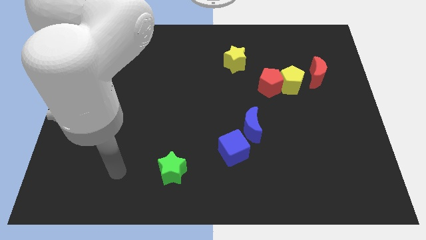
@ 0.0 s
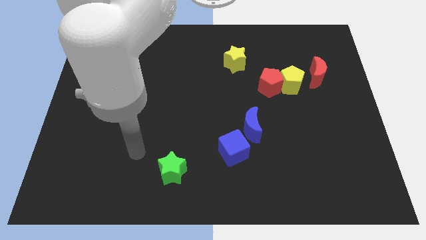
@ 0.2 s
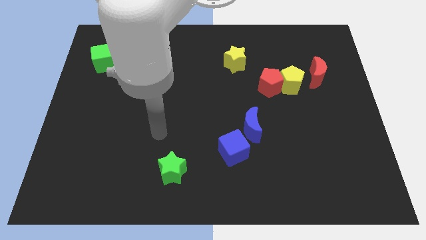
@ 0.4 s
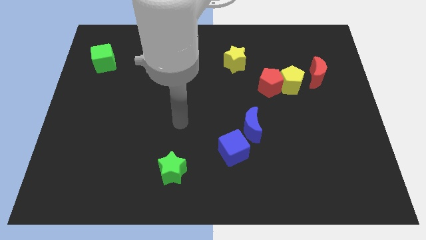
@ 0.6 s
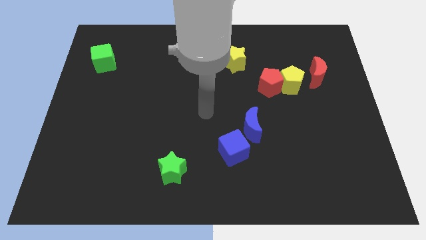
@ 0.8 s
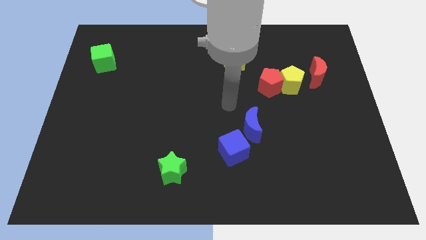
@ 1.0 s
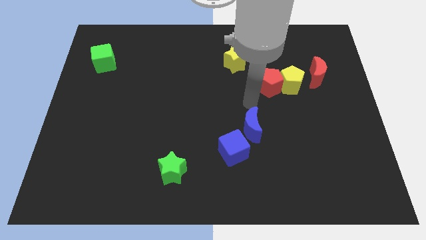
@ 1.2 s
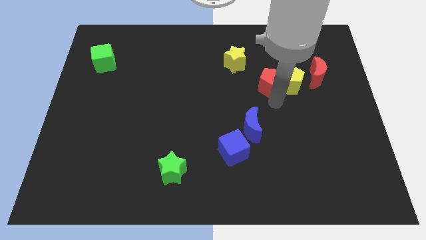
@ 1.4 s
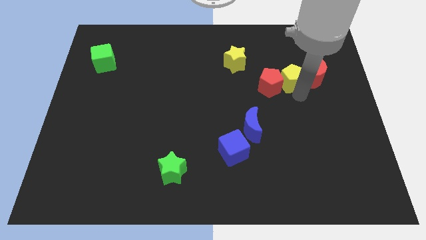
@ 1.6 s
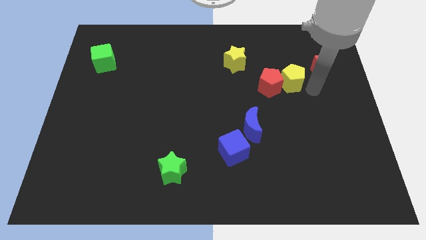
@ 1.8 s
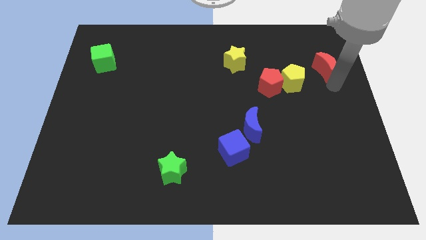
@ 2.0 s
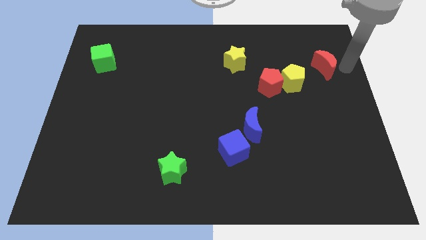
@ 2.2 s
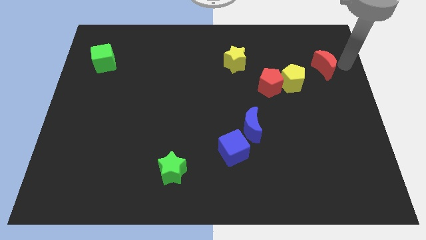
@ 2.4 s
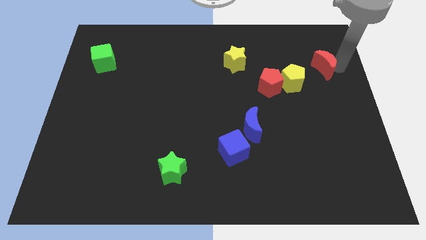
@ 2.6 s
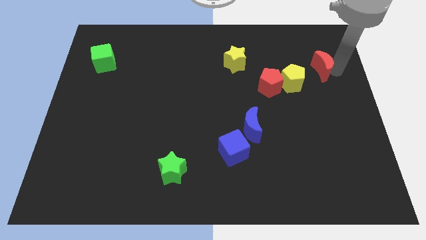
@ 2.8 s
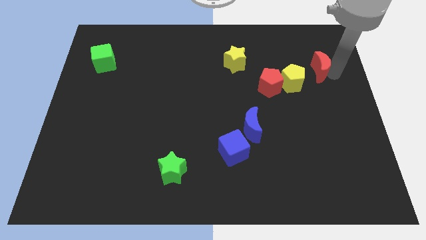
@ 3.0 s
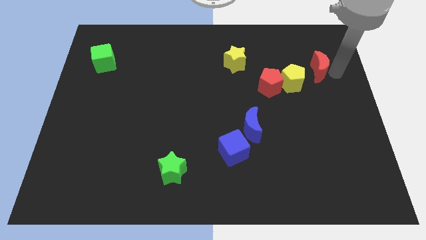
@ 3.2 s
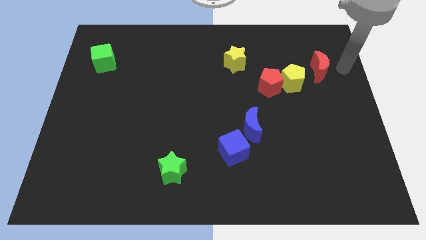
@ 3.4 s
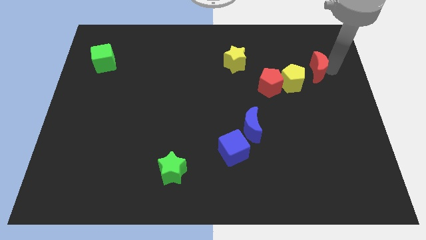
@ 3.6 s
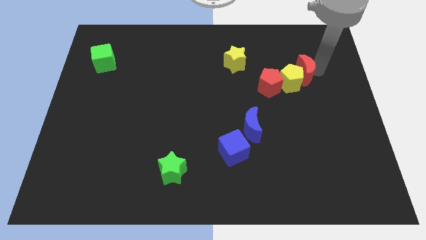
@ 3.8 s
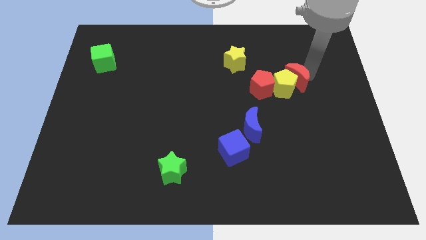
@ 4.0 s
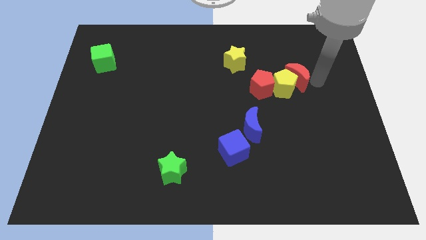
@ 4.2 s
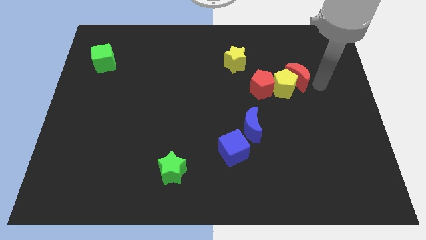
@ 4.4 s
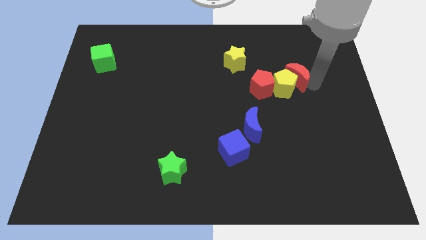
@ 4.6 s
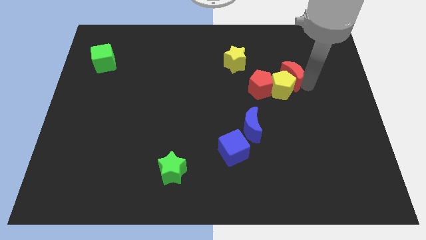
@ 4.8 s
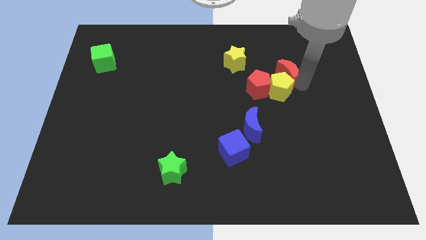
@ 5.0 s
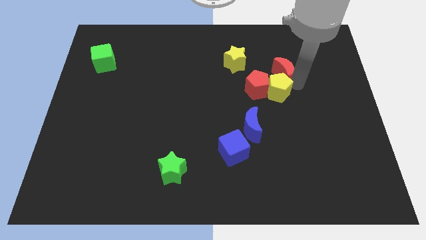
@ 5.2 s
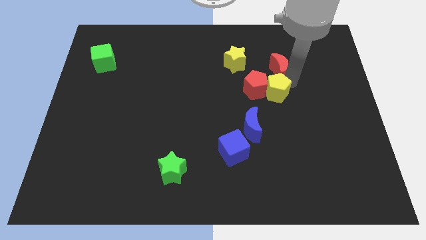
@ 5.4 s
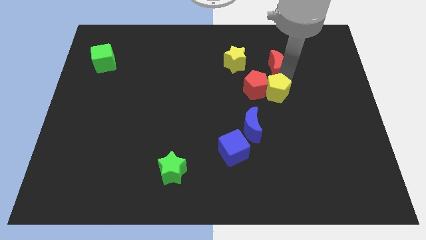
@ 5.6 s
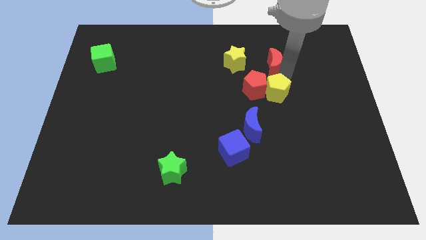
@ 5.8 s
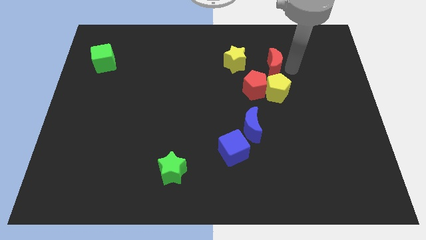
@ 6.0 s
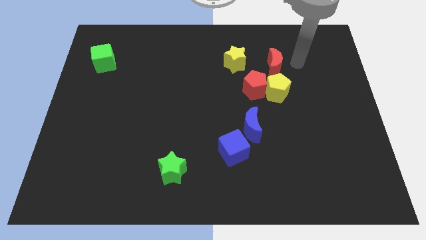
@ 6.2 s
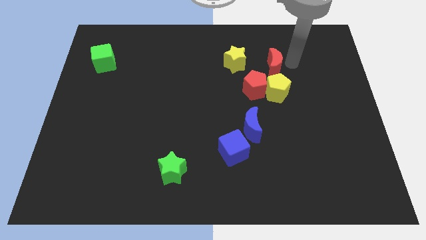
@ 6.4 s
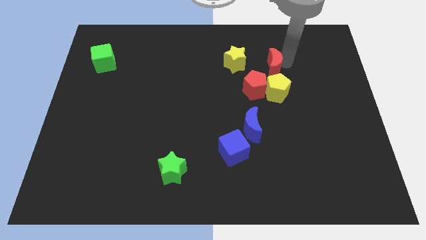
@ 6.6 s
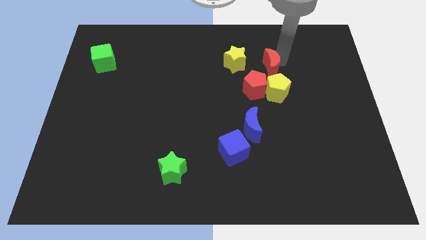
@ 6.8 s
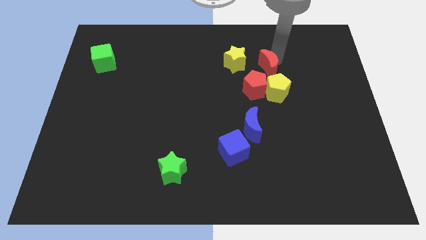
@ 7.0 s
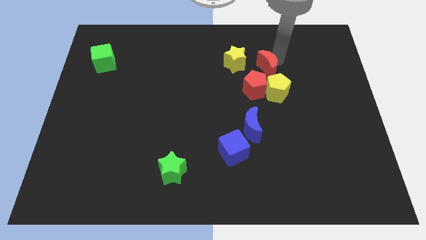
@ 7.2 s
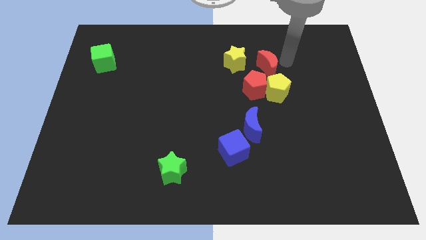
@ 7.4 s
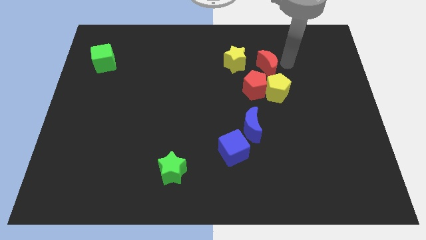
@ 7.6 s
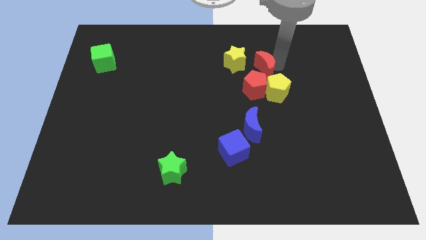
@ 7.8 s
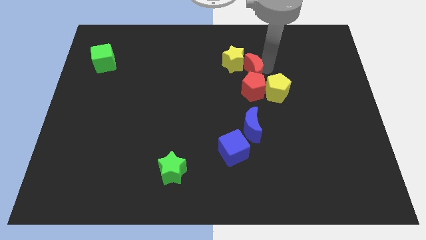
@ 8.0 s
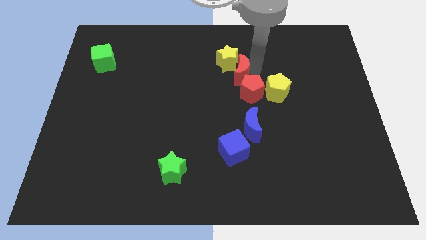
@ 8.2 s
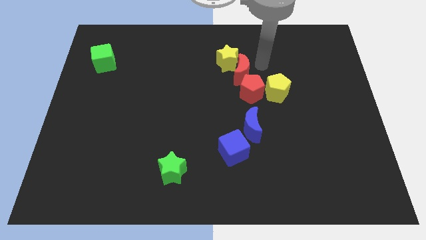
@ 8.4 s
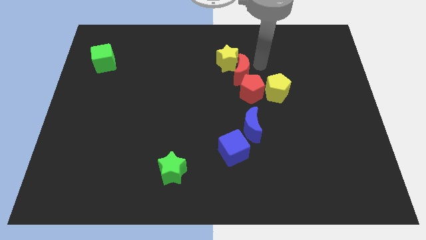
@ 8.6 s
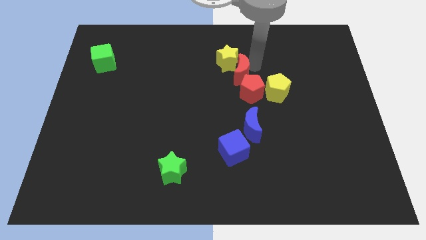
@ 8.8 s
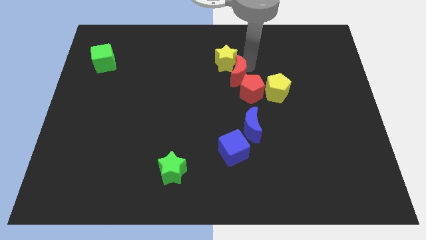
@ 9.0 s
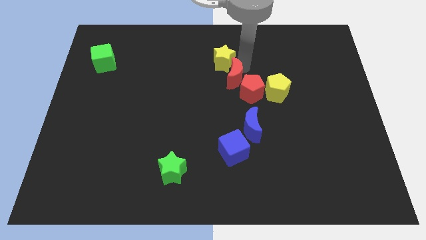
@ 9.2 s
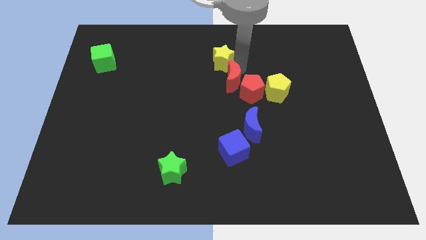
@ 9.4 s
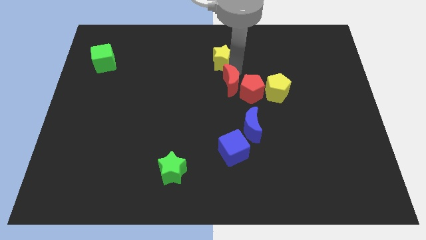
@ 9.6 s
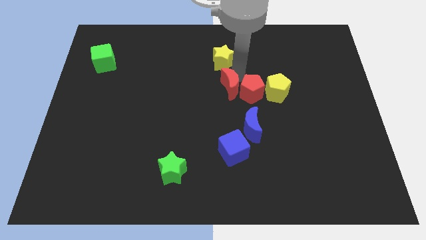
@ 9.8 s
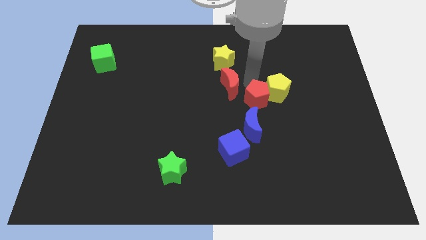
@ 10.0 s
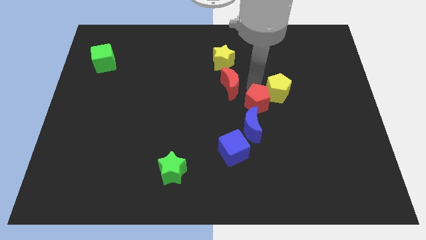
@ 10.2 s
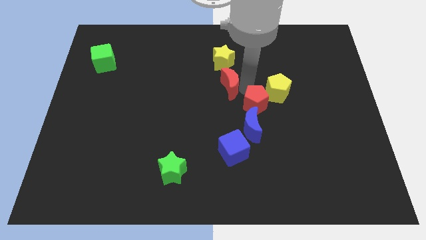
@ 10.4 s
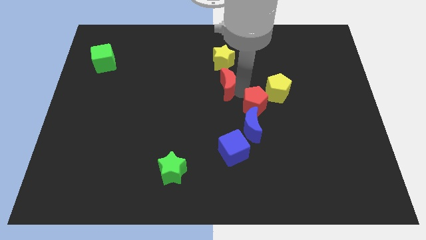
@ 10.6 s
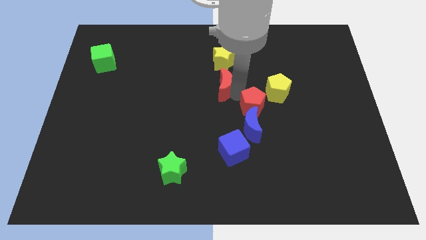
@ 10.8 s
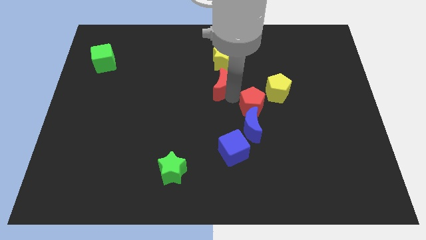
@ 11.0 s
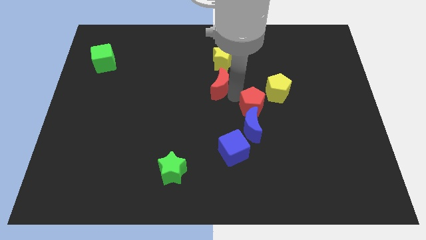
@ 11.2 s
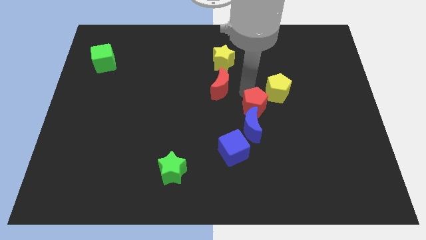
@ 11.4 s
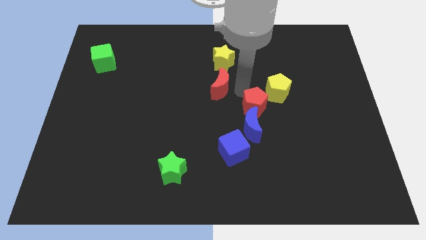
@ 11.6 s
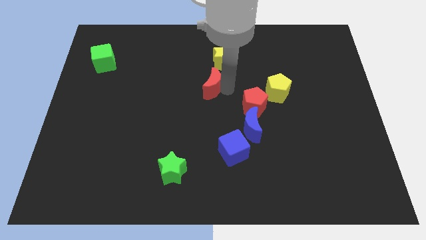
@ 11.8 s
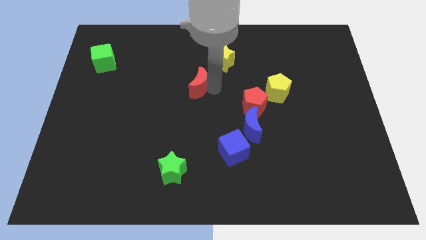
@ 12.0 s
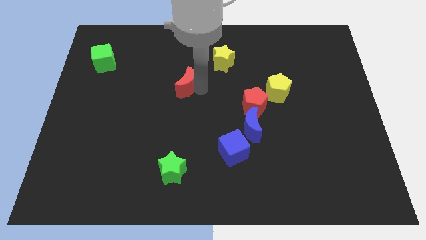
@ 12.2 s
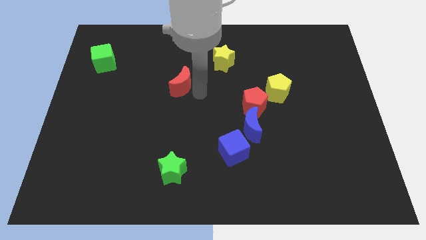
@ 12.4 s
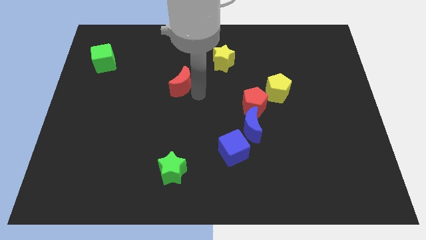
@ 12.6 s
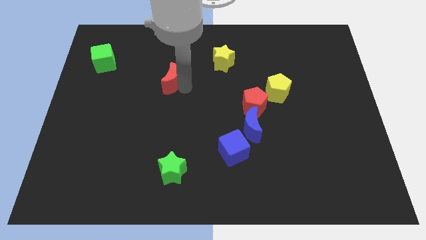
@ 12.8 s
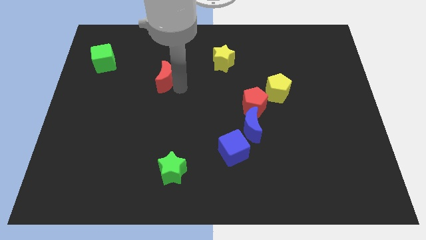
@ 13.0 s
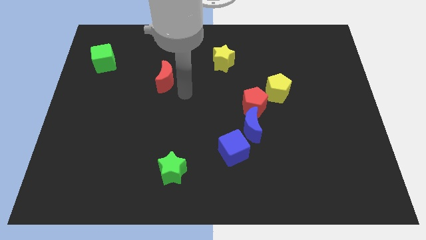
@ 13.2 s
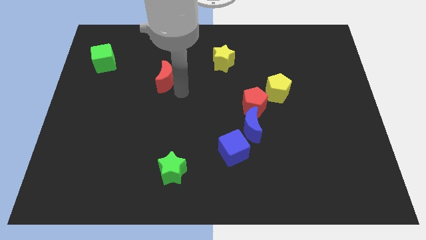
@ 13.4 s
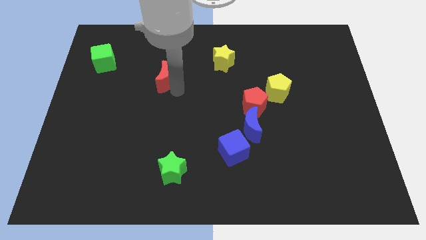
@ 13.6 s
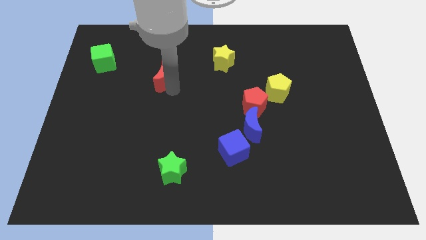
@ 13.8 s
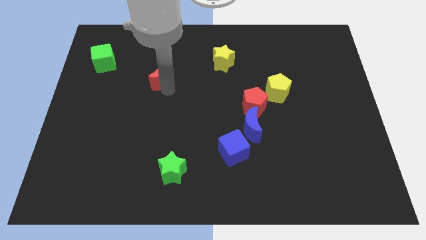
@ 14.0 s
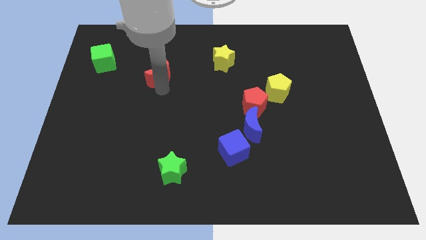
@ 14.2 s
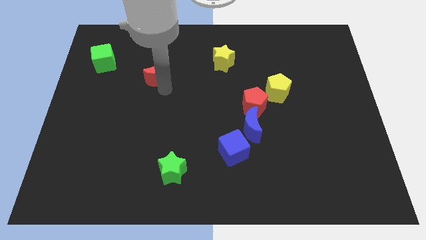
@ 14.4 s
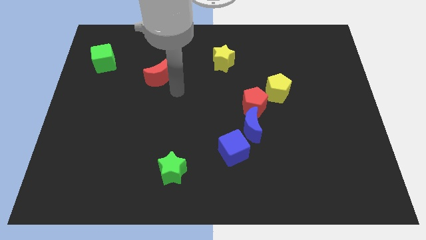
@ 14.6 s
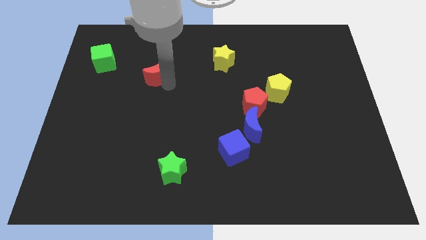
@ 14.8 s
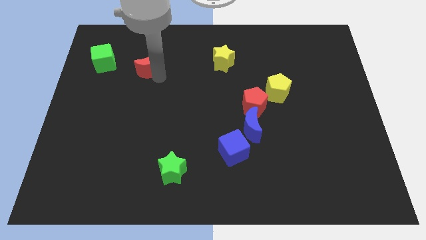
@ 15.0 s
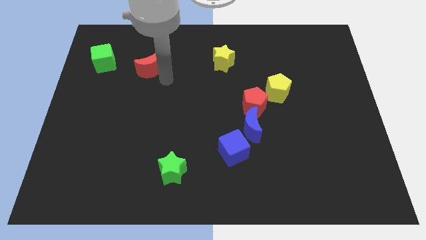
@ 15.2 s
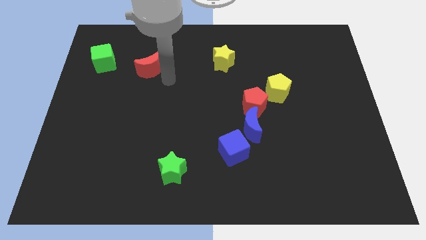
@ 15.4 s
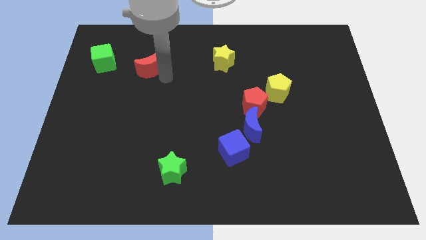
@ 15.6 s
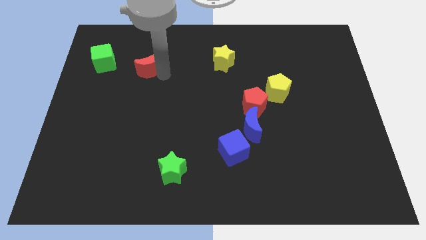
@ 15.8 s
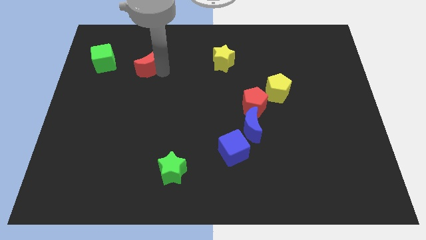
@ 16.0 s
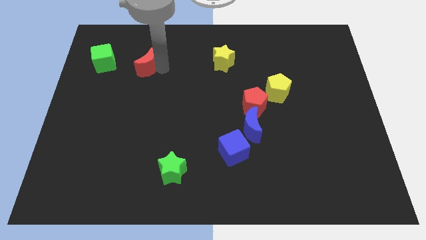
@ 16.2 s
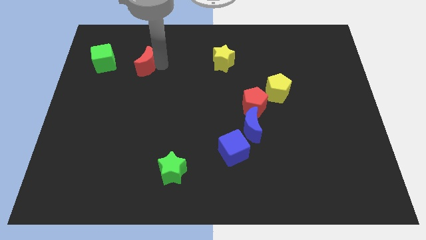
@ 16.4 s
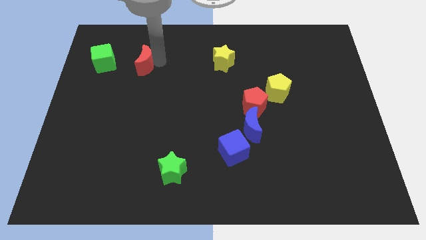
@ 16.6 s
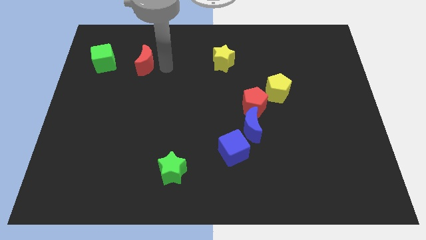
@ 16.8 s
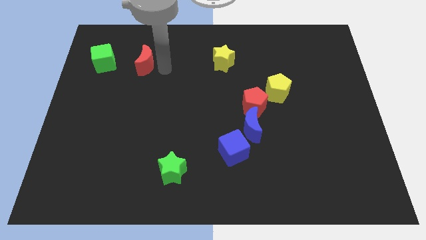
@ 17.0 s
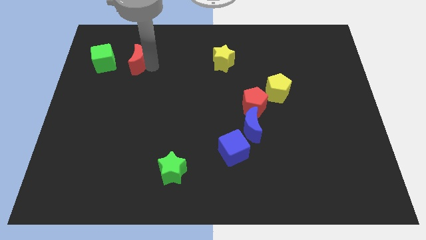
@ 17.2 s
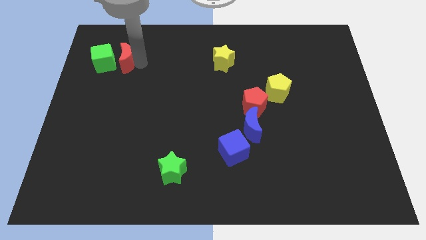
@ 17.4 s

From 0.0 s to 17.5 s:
slide the red moon next to the green cube
